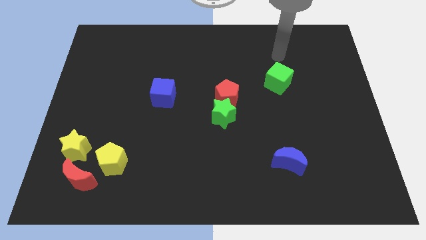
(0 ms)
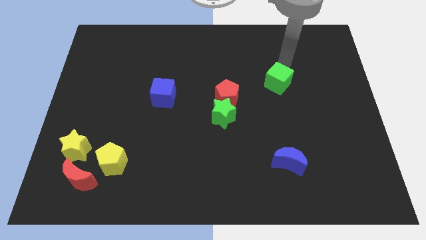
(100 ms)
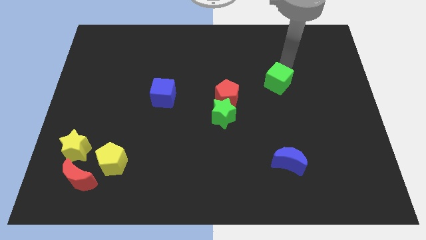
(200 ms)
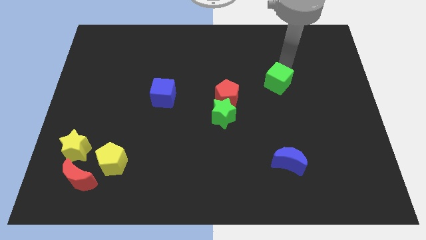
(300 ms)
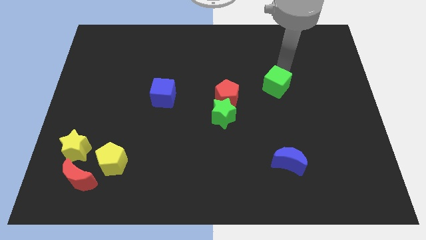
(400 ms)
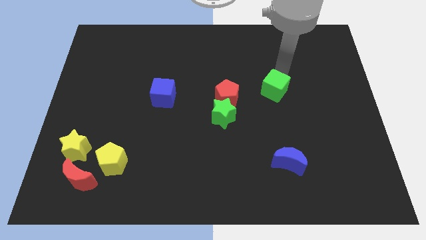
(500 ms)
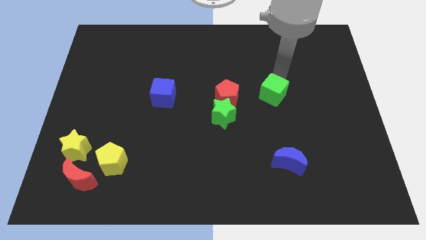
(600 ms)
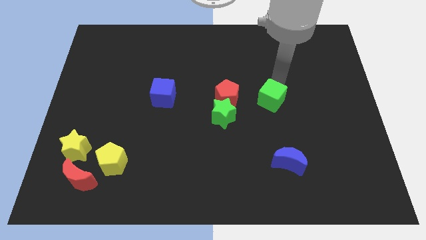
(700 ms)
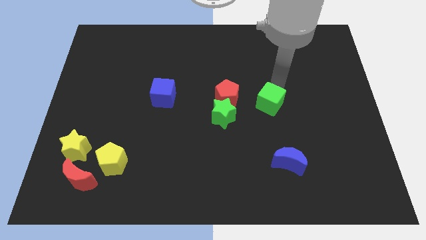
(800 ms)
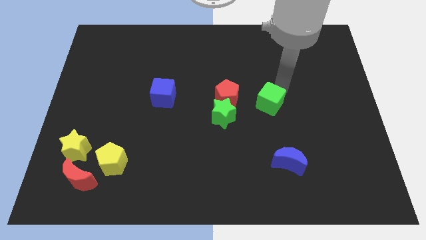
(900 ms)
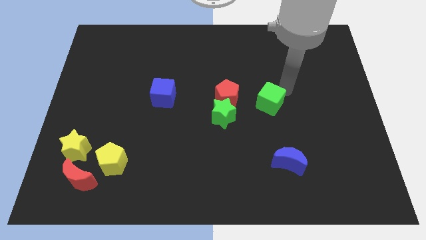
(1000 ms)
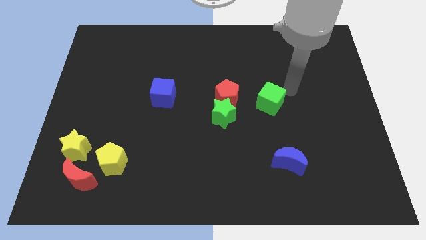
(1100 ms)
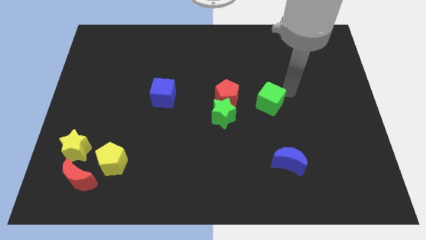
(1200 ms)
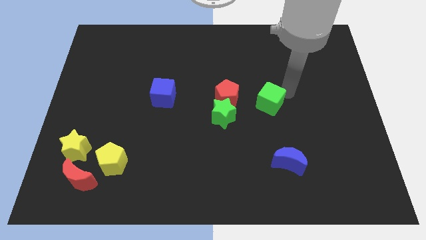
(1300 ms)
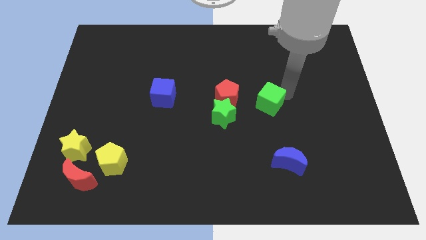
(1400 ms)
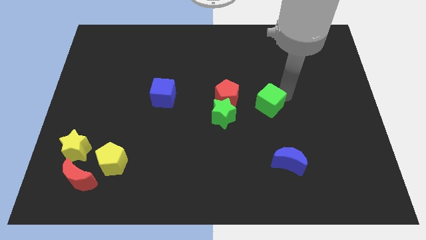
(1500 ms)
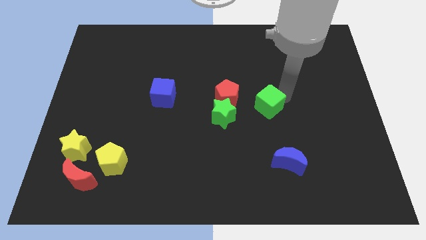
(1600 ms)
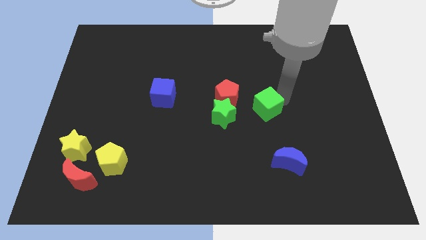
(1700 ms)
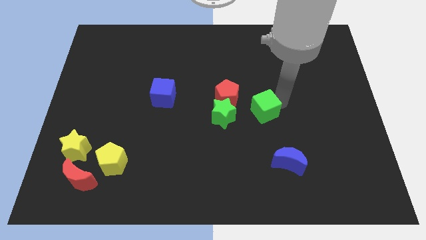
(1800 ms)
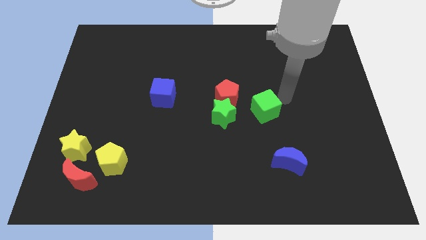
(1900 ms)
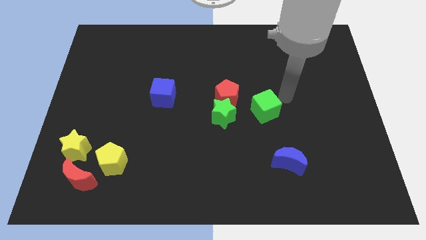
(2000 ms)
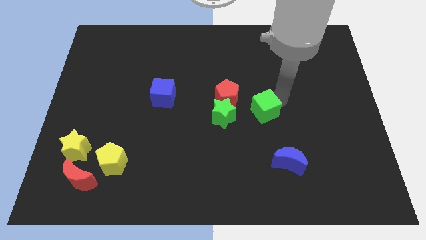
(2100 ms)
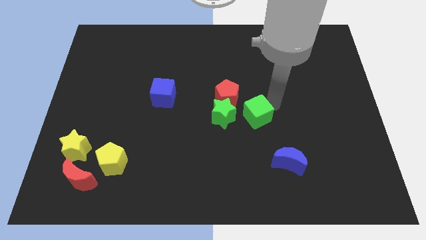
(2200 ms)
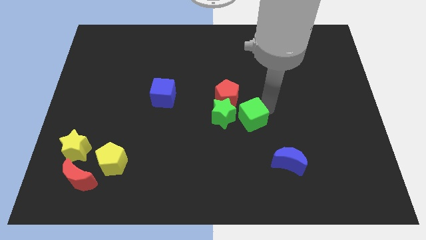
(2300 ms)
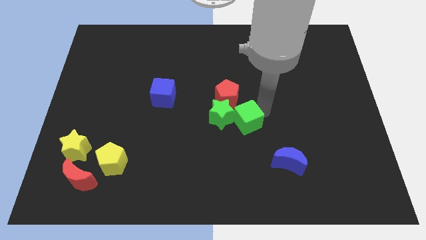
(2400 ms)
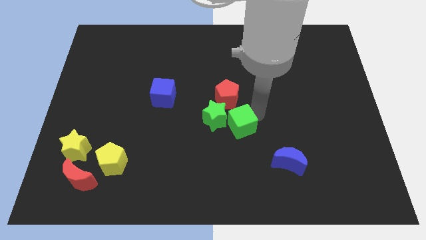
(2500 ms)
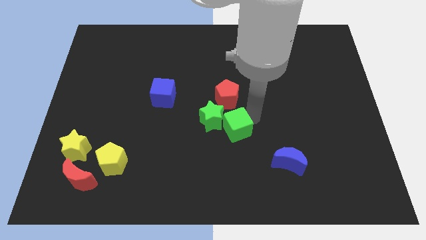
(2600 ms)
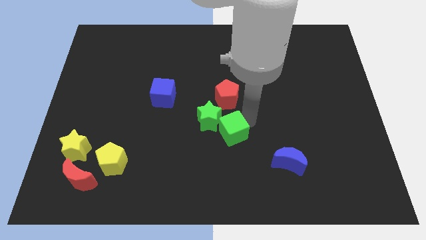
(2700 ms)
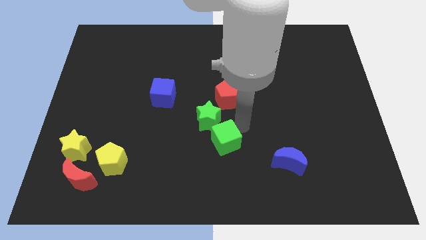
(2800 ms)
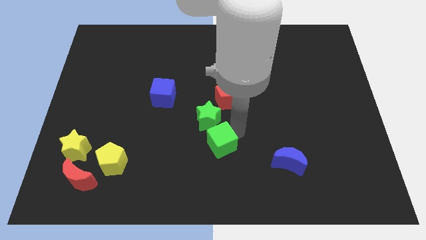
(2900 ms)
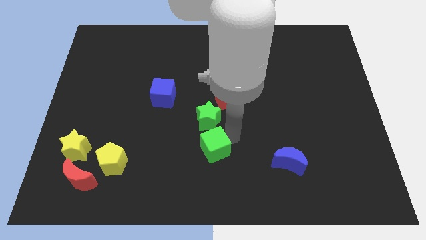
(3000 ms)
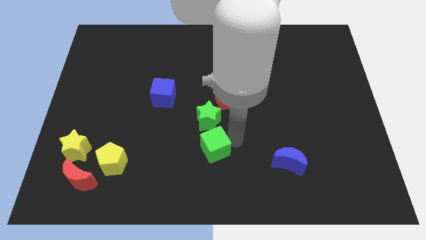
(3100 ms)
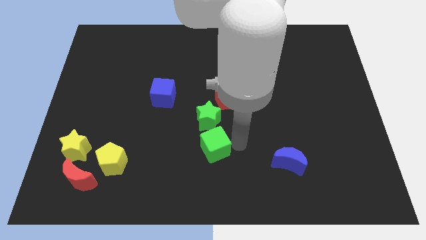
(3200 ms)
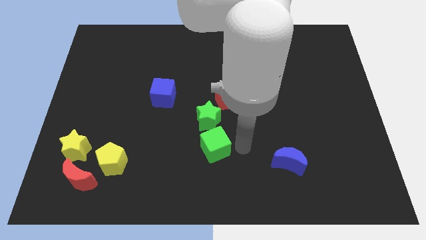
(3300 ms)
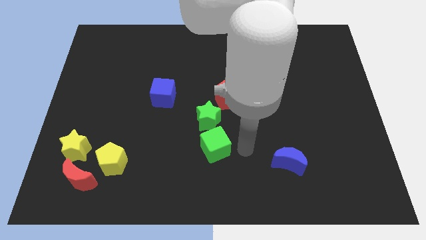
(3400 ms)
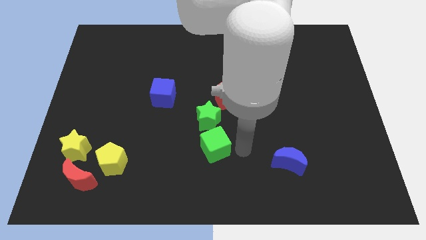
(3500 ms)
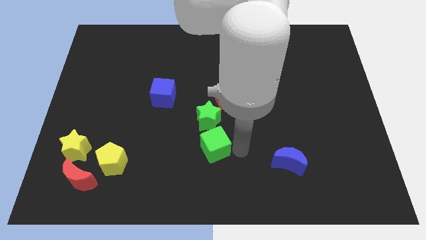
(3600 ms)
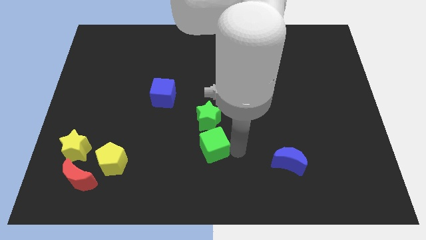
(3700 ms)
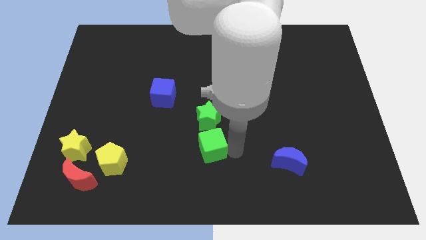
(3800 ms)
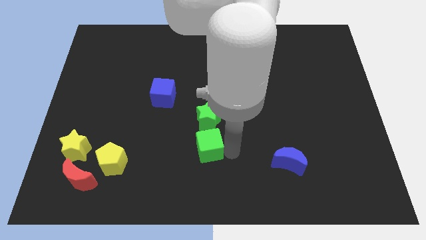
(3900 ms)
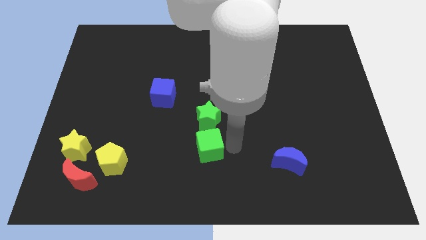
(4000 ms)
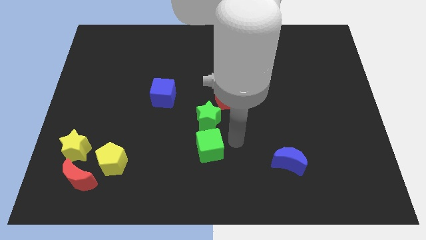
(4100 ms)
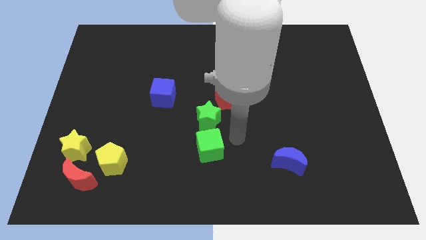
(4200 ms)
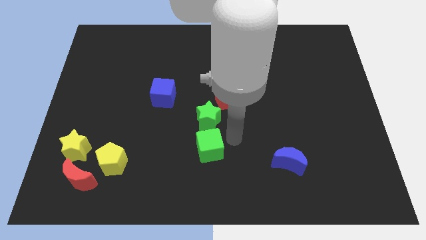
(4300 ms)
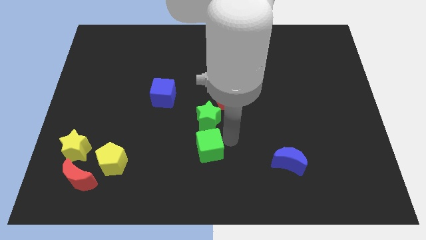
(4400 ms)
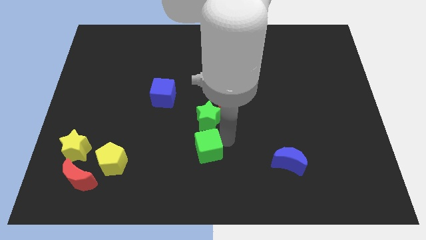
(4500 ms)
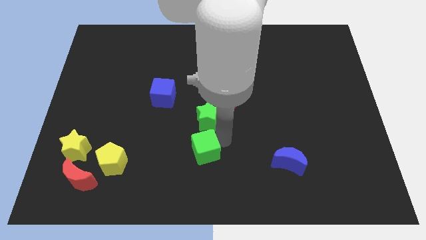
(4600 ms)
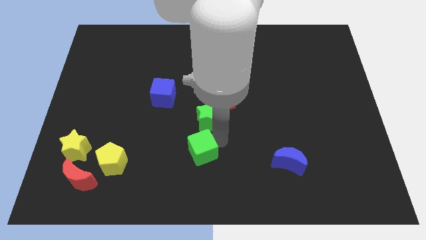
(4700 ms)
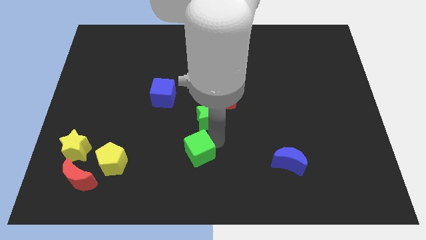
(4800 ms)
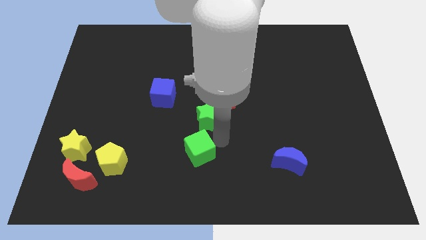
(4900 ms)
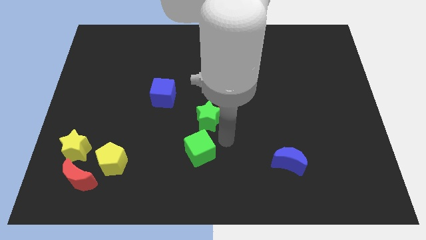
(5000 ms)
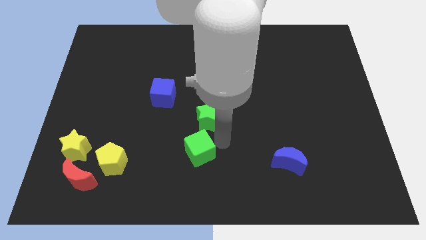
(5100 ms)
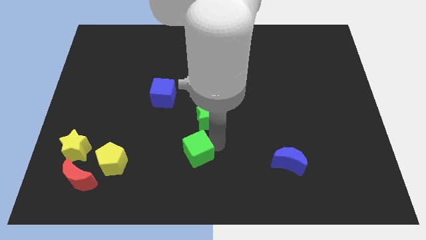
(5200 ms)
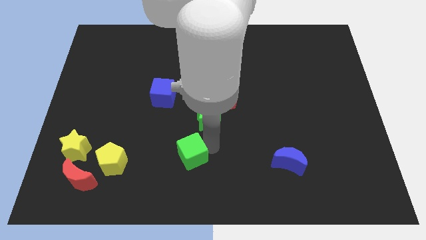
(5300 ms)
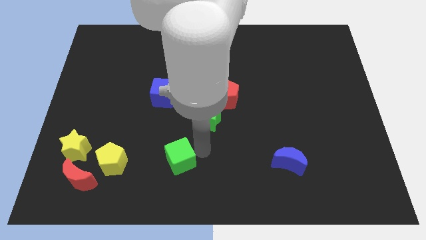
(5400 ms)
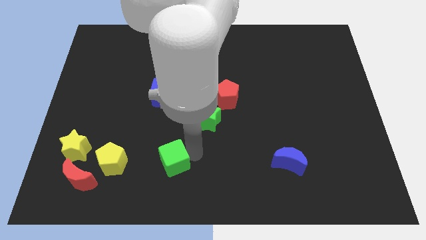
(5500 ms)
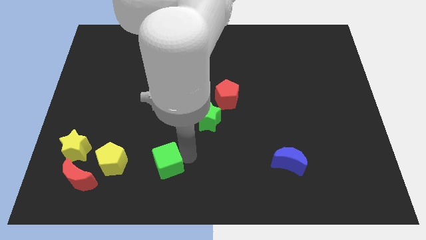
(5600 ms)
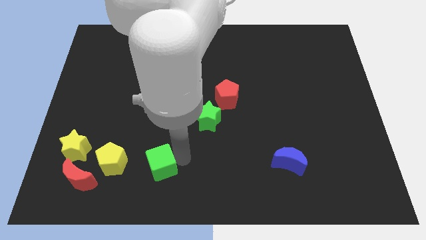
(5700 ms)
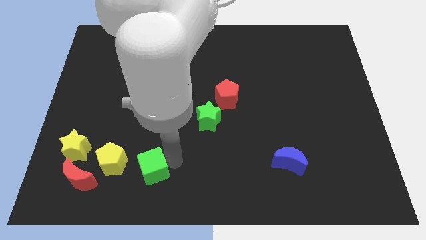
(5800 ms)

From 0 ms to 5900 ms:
move the green cube just right of the red moon

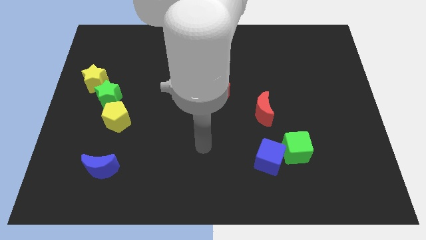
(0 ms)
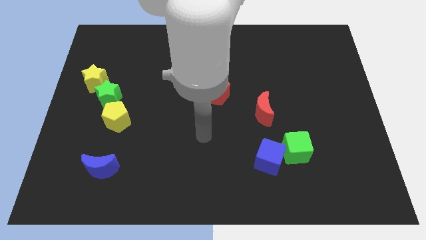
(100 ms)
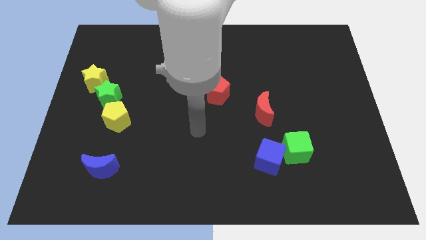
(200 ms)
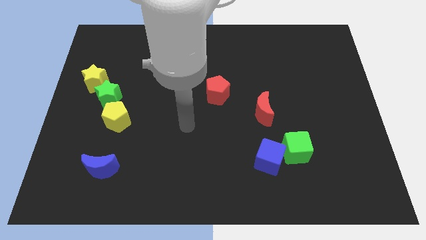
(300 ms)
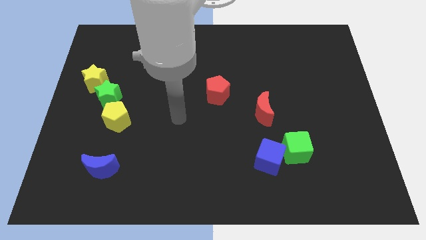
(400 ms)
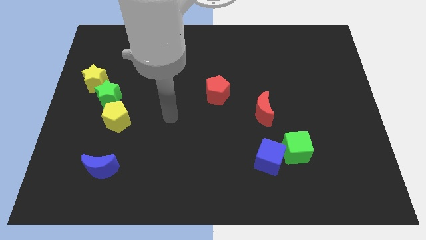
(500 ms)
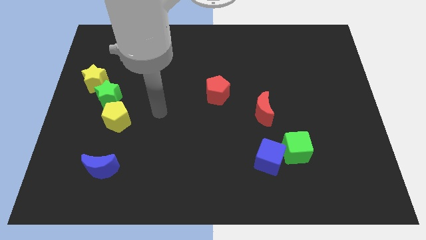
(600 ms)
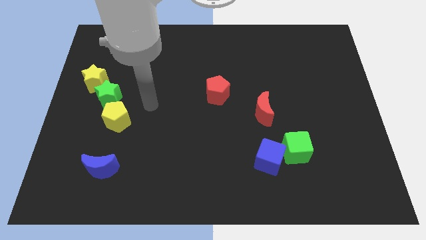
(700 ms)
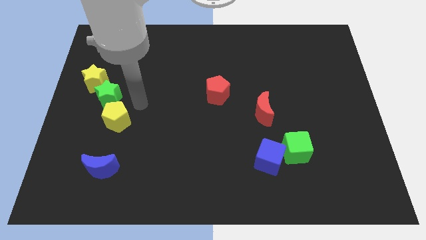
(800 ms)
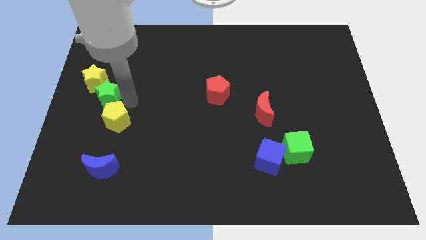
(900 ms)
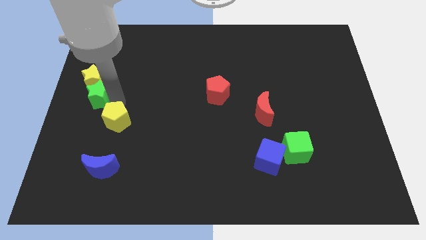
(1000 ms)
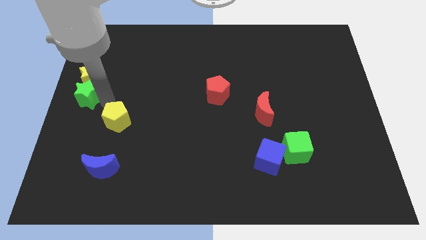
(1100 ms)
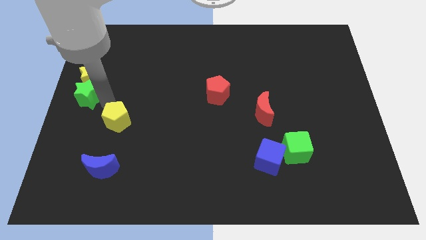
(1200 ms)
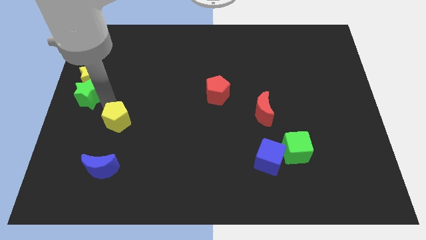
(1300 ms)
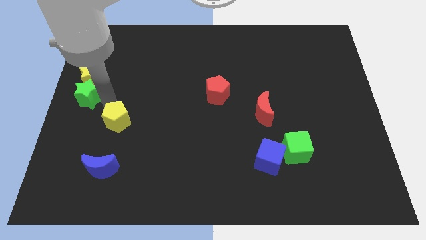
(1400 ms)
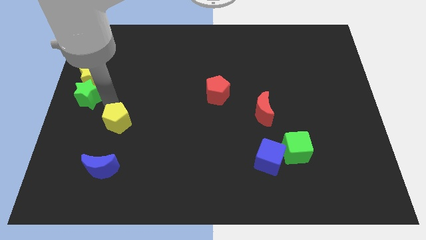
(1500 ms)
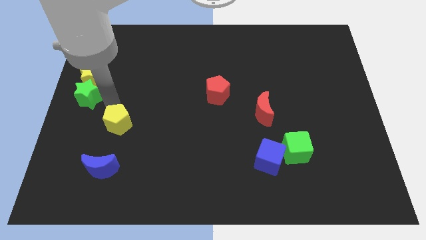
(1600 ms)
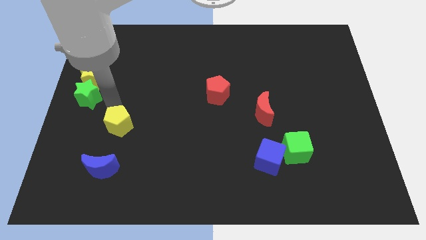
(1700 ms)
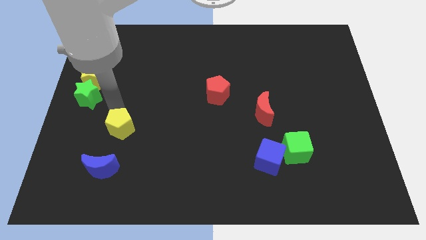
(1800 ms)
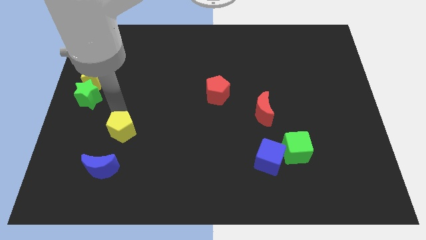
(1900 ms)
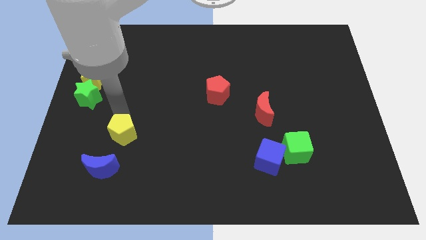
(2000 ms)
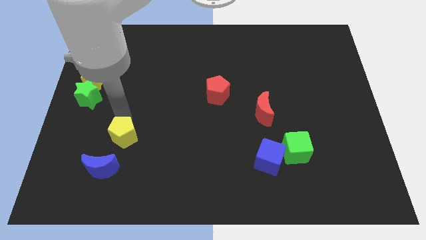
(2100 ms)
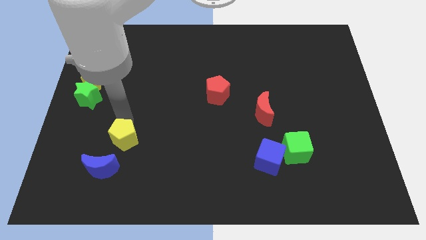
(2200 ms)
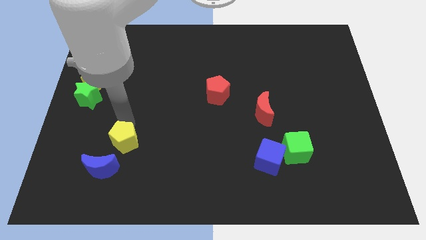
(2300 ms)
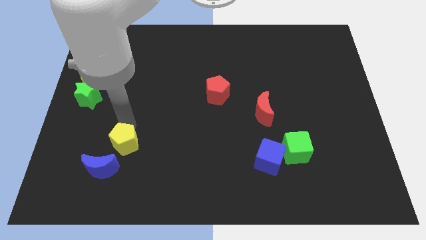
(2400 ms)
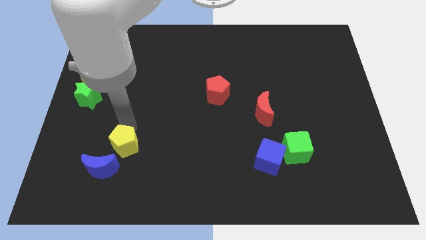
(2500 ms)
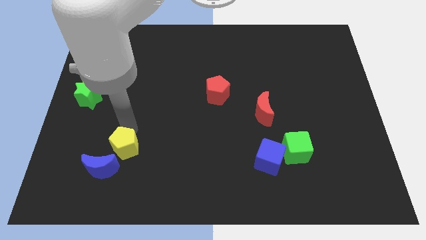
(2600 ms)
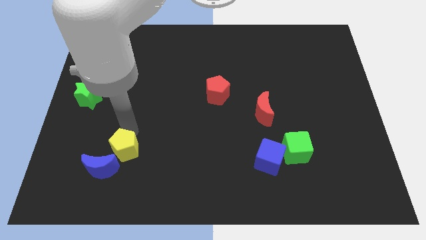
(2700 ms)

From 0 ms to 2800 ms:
push the yellow pentagon to the right of the blue moon
